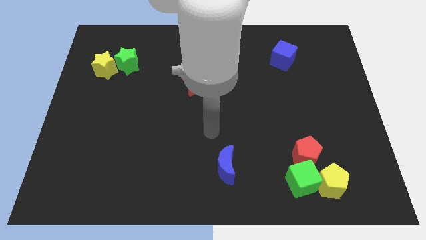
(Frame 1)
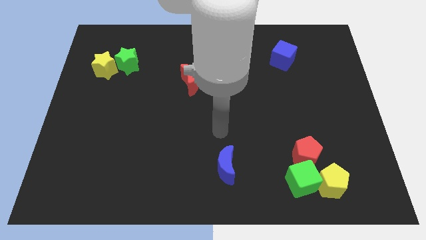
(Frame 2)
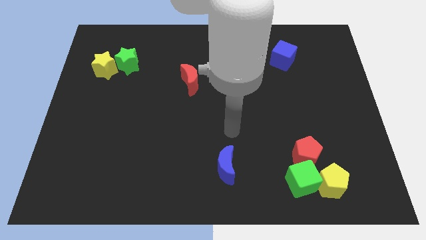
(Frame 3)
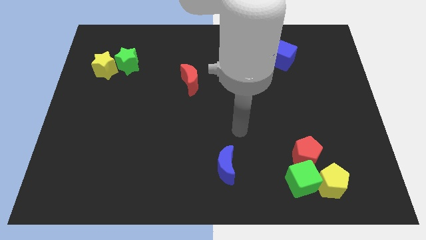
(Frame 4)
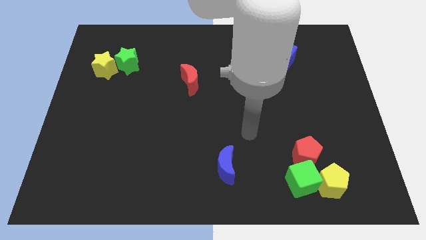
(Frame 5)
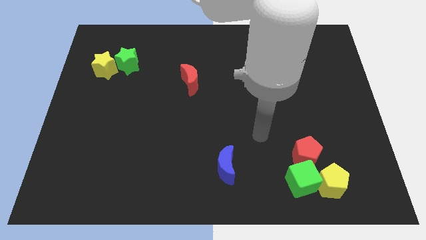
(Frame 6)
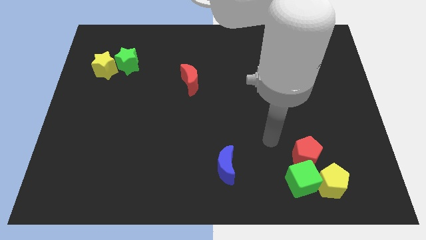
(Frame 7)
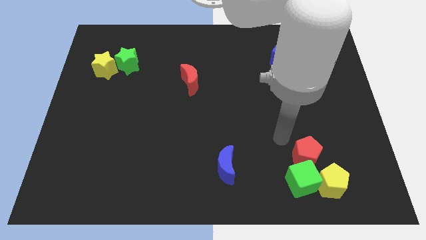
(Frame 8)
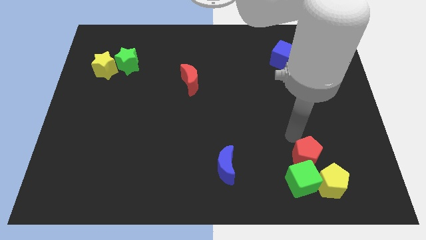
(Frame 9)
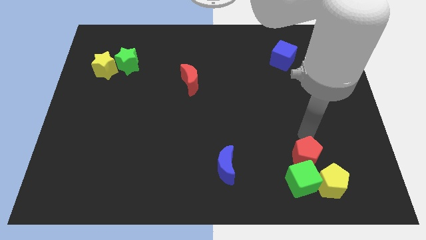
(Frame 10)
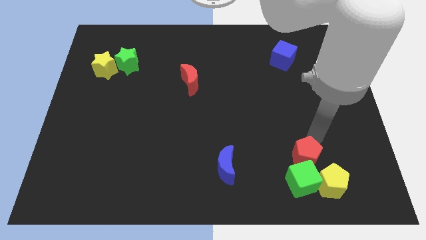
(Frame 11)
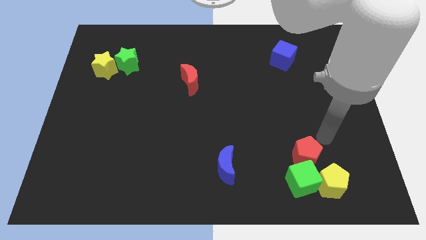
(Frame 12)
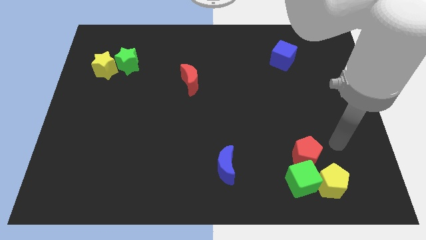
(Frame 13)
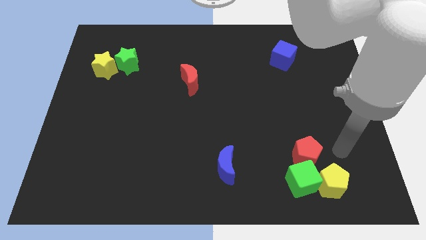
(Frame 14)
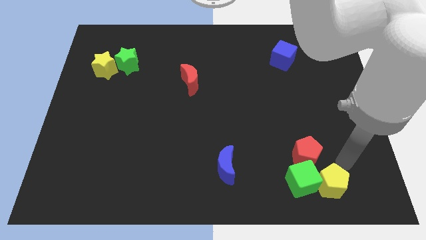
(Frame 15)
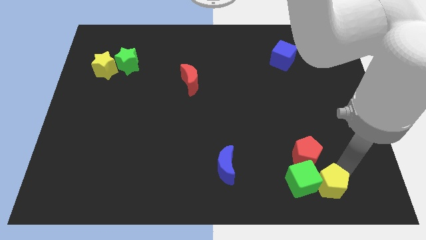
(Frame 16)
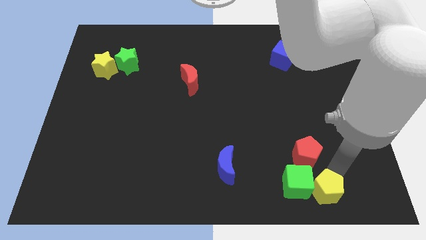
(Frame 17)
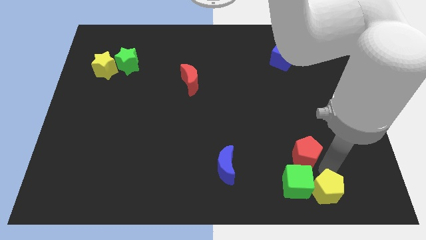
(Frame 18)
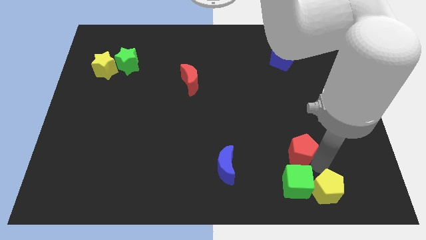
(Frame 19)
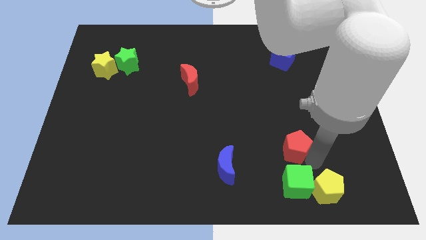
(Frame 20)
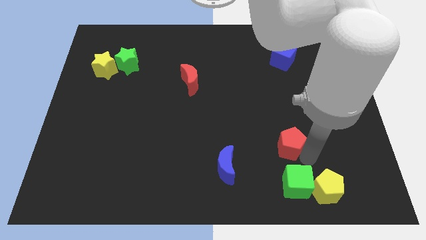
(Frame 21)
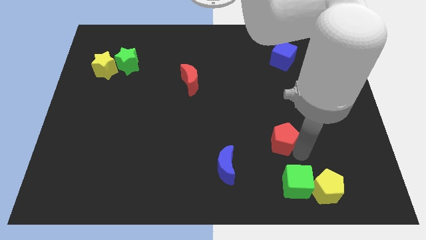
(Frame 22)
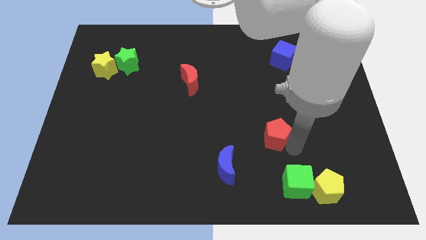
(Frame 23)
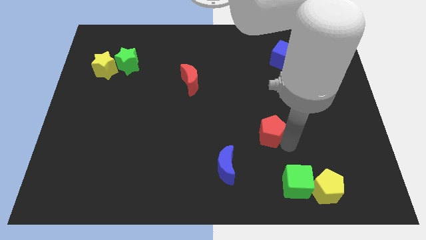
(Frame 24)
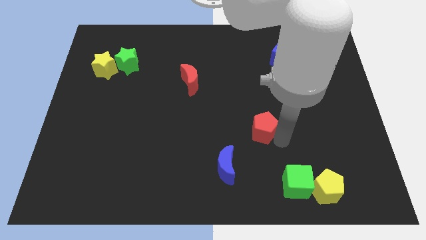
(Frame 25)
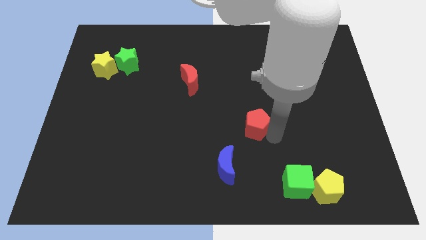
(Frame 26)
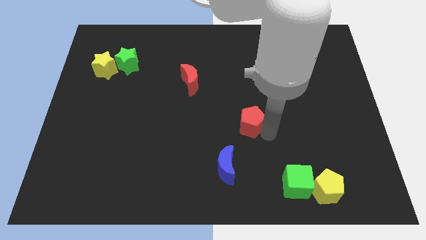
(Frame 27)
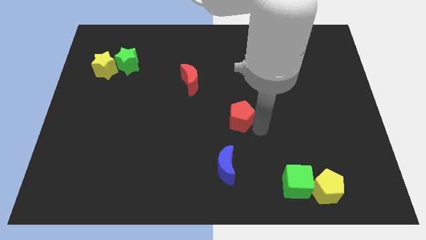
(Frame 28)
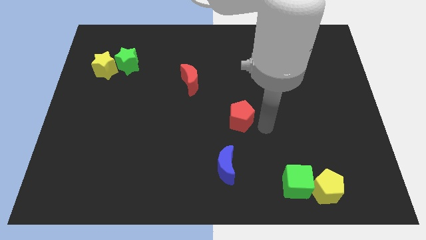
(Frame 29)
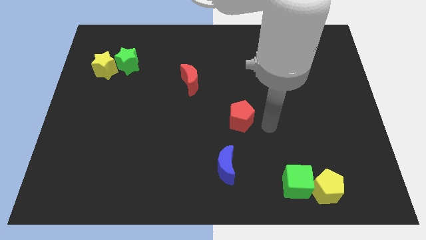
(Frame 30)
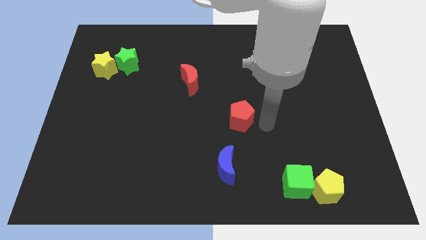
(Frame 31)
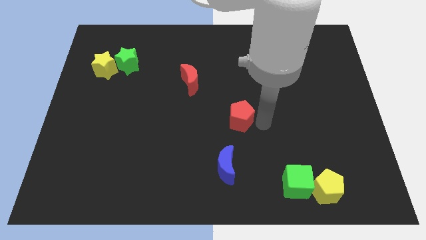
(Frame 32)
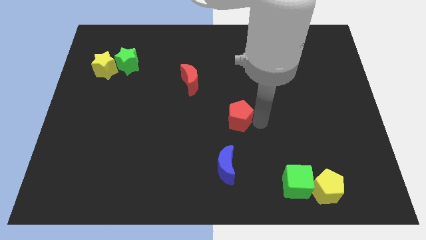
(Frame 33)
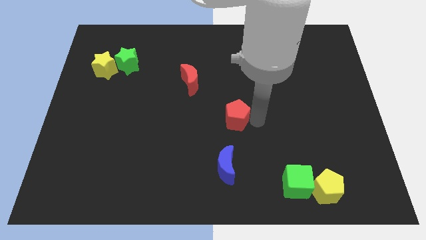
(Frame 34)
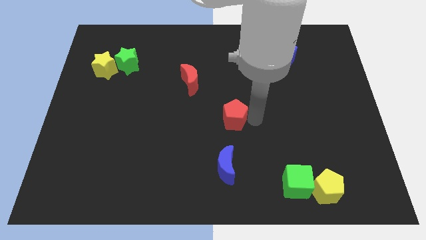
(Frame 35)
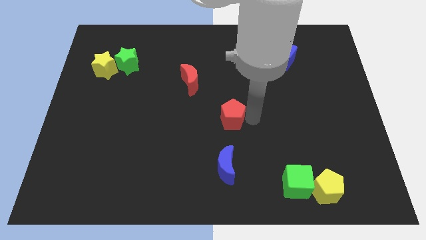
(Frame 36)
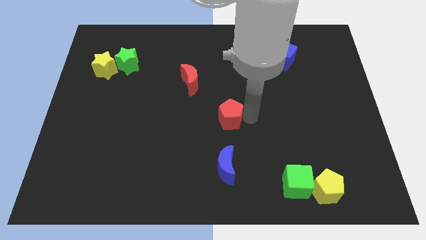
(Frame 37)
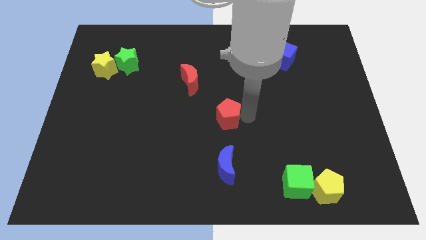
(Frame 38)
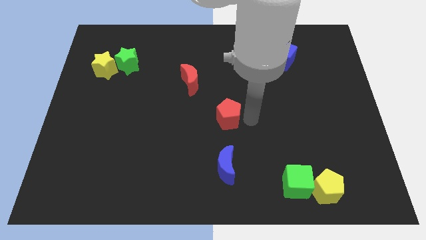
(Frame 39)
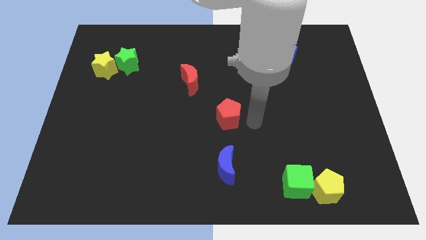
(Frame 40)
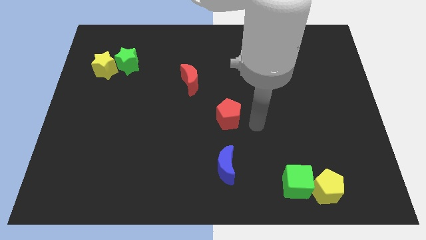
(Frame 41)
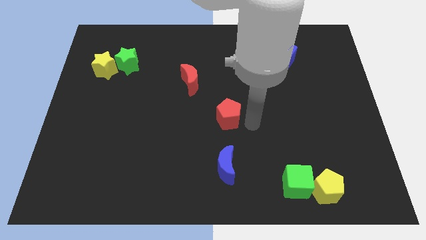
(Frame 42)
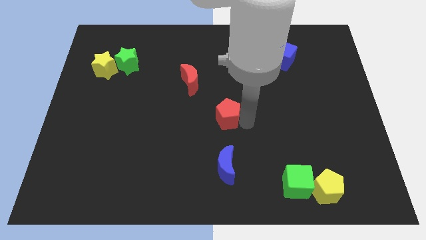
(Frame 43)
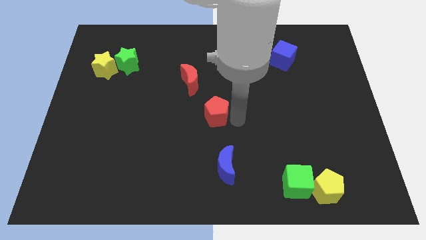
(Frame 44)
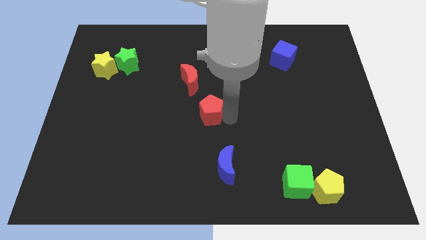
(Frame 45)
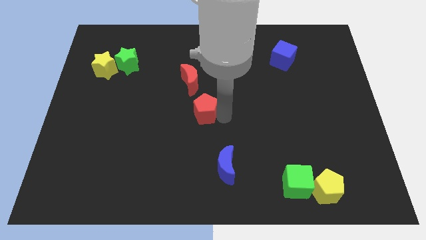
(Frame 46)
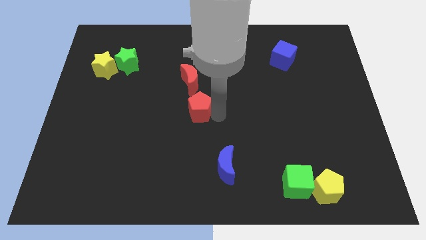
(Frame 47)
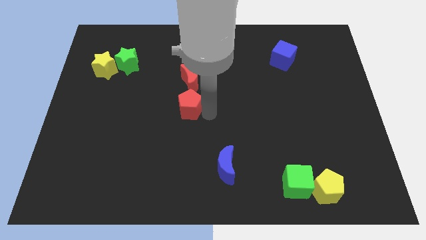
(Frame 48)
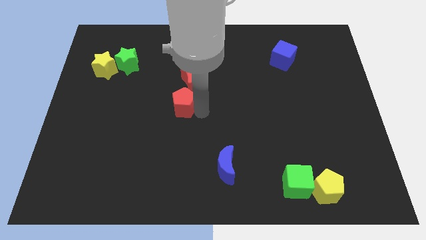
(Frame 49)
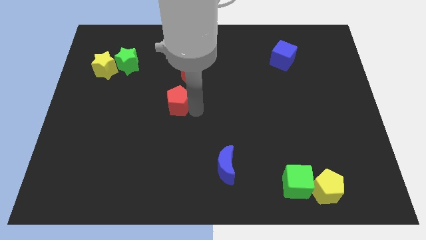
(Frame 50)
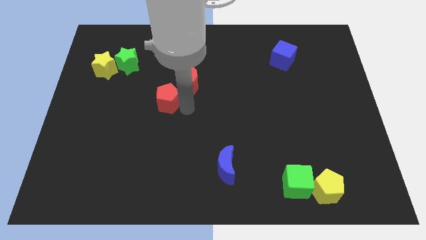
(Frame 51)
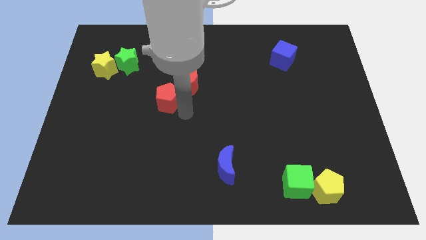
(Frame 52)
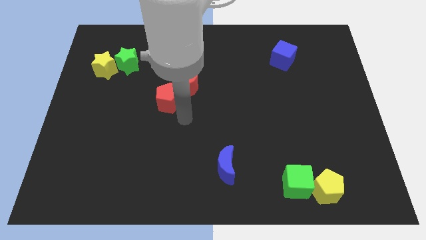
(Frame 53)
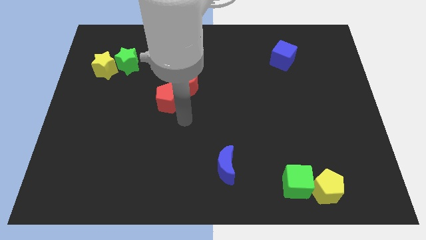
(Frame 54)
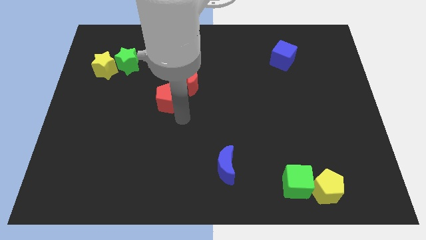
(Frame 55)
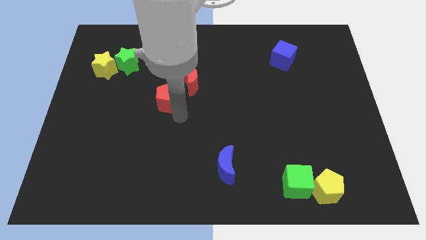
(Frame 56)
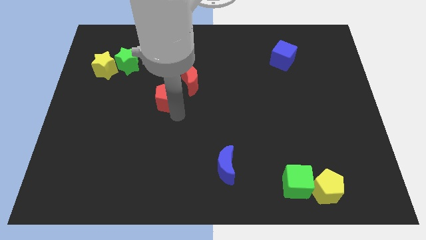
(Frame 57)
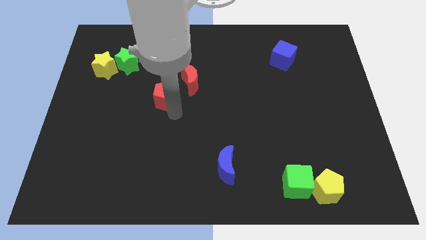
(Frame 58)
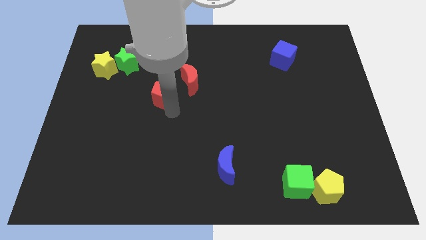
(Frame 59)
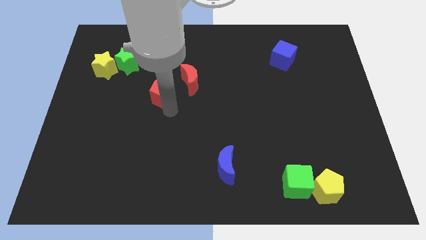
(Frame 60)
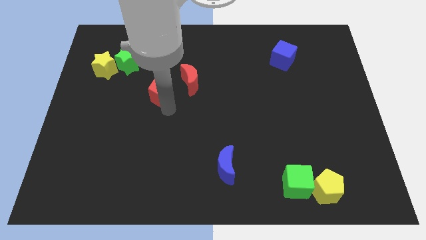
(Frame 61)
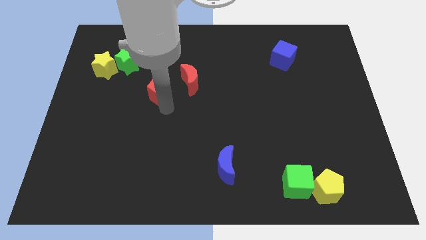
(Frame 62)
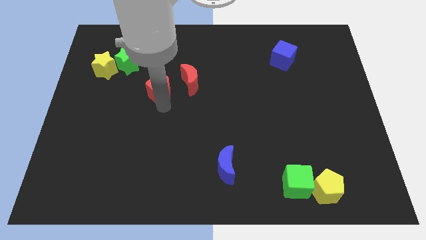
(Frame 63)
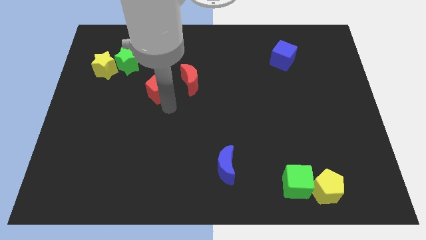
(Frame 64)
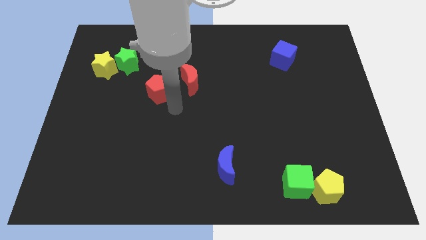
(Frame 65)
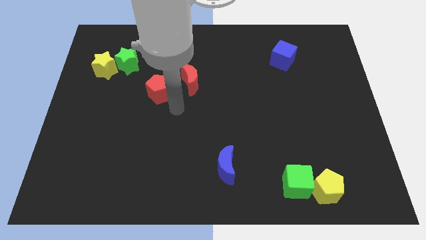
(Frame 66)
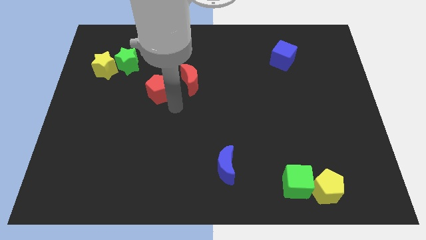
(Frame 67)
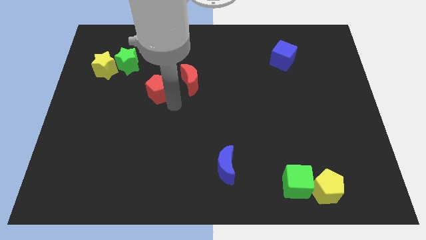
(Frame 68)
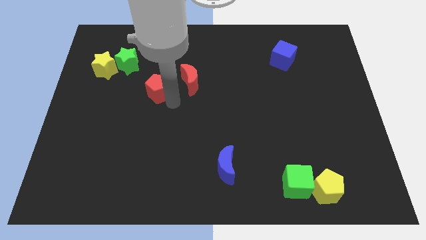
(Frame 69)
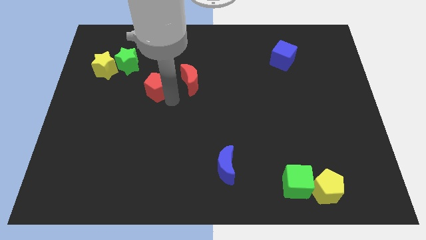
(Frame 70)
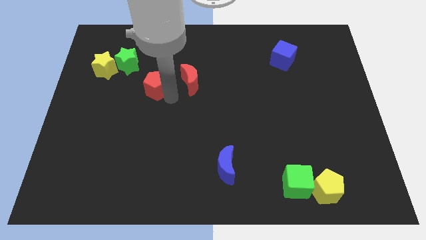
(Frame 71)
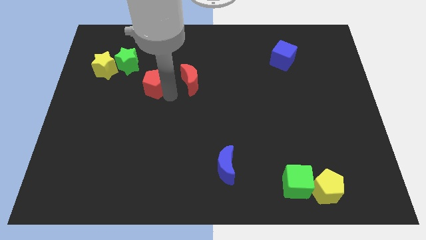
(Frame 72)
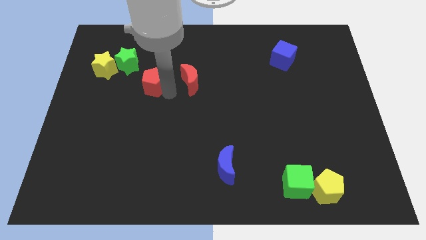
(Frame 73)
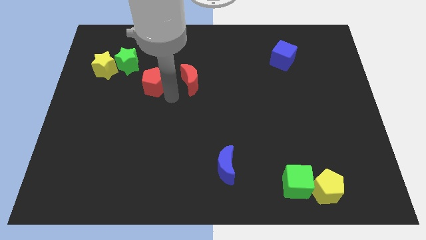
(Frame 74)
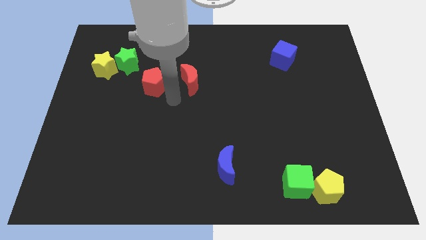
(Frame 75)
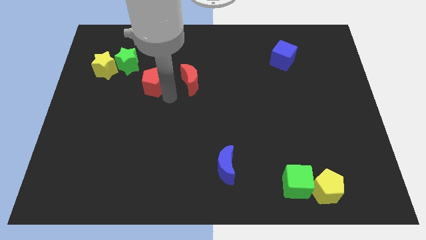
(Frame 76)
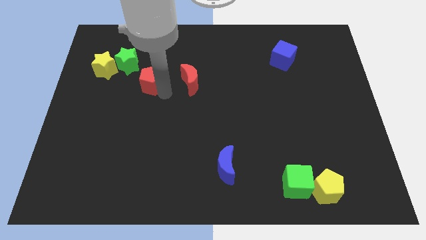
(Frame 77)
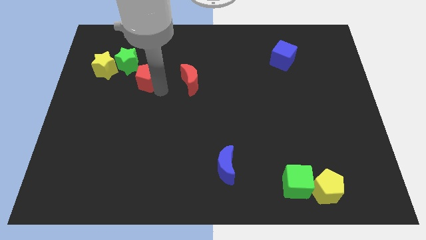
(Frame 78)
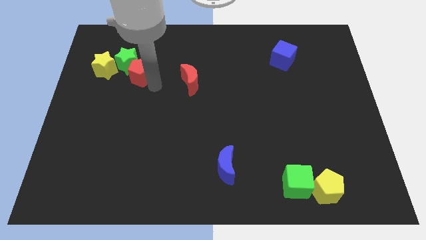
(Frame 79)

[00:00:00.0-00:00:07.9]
slide the red pentagon next to the green star
